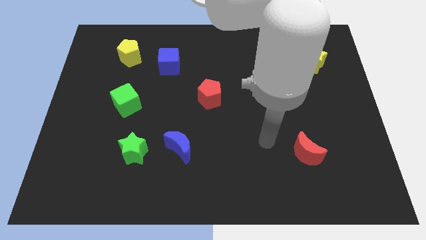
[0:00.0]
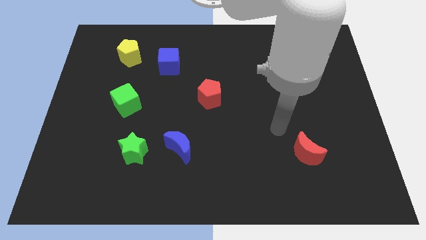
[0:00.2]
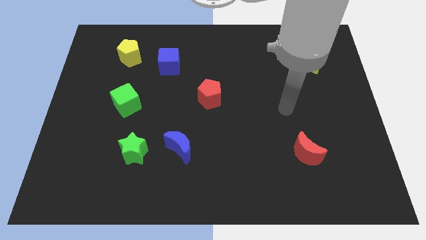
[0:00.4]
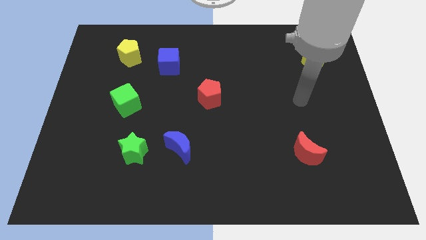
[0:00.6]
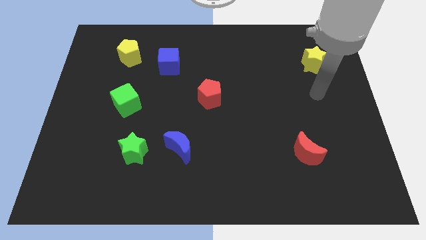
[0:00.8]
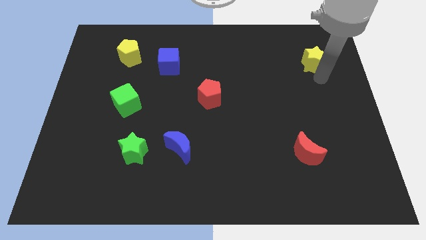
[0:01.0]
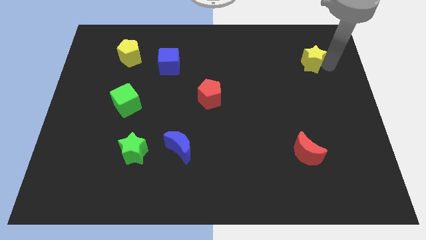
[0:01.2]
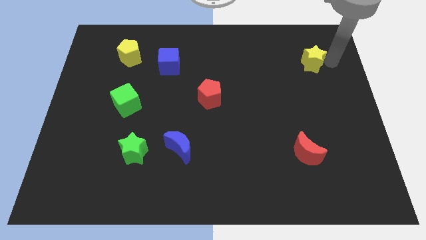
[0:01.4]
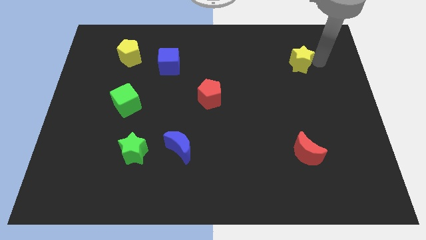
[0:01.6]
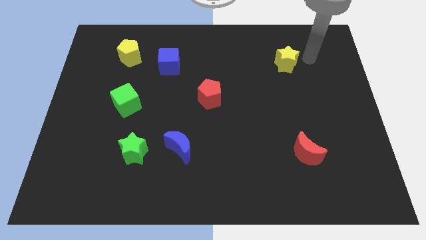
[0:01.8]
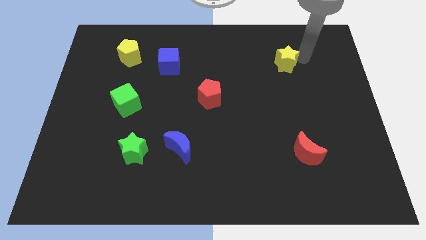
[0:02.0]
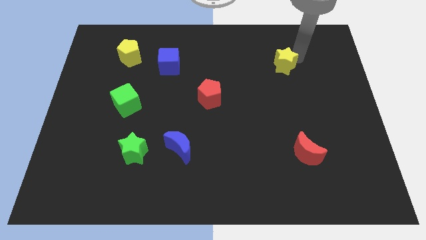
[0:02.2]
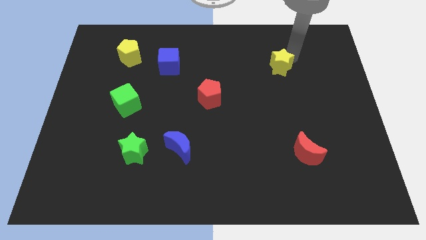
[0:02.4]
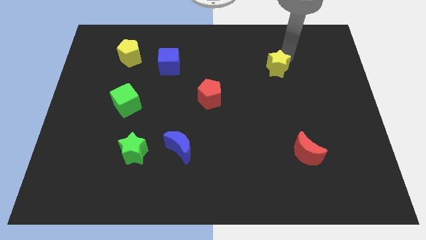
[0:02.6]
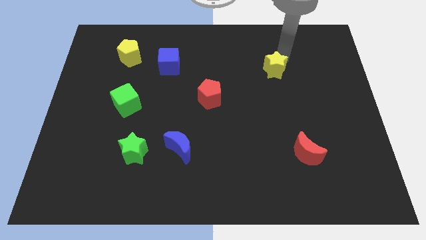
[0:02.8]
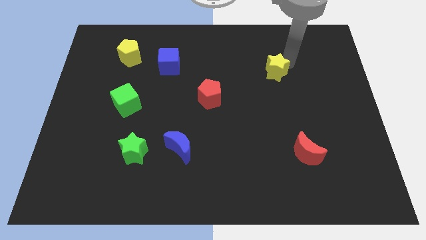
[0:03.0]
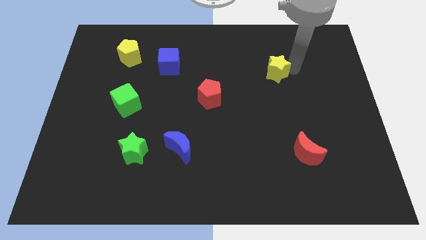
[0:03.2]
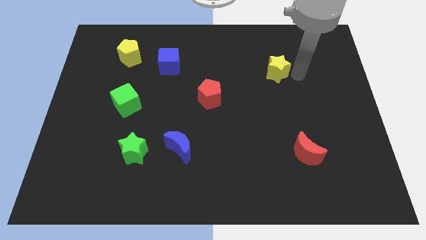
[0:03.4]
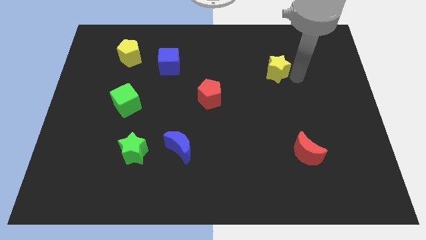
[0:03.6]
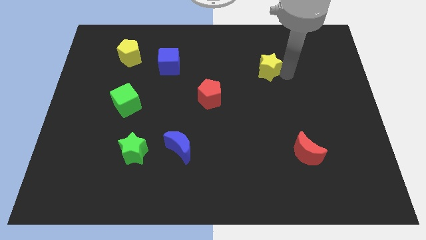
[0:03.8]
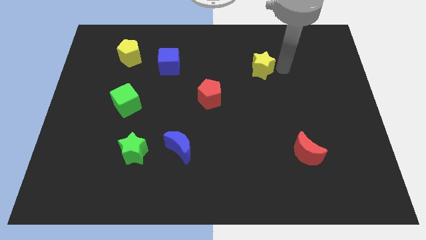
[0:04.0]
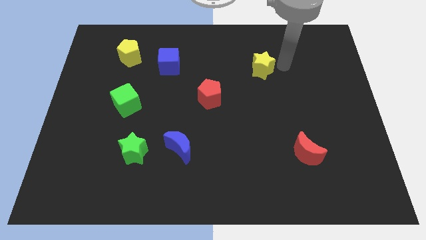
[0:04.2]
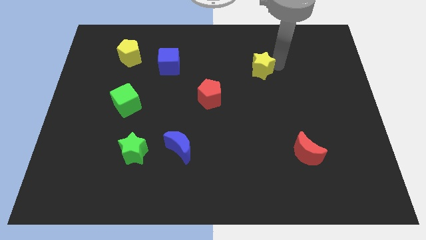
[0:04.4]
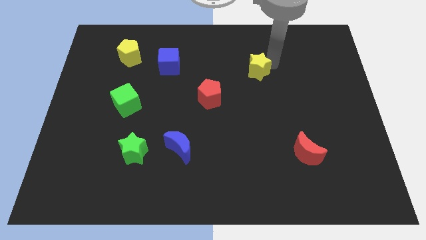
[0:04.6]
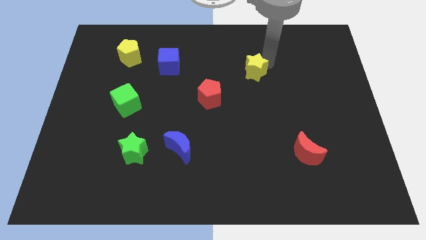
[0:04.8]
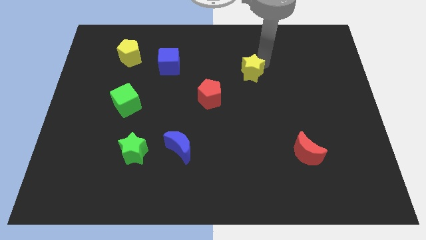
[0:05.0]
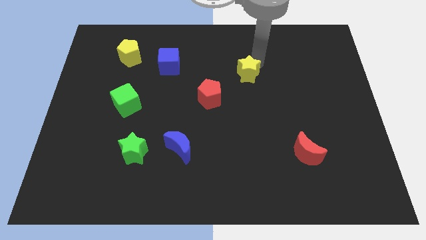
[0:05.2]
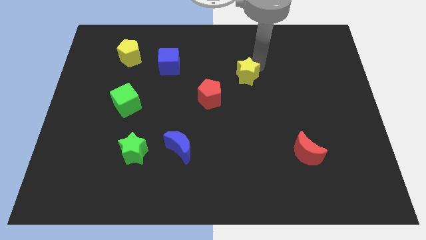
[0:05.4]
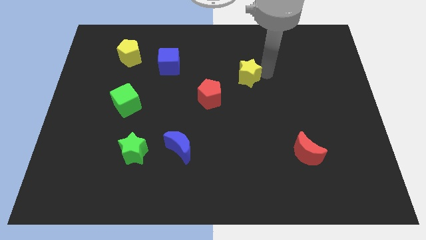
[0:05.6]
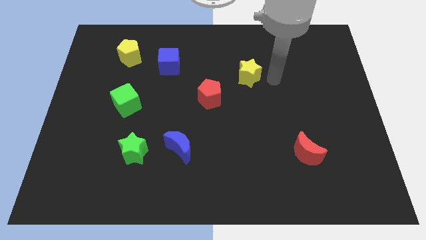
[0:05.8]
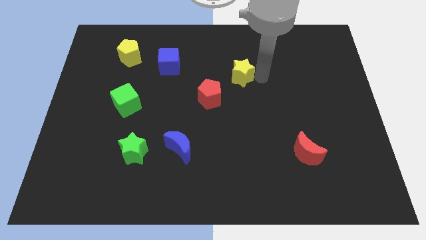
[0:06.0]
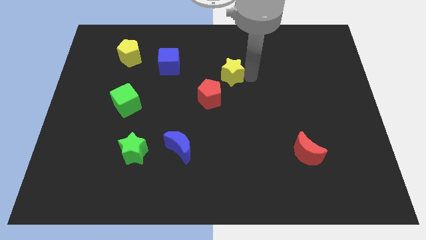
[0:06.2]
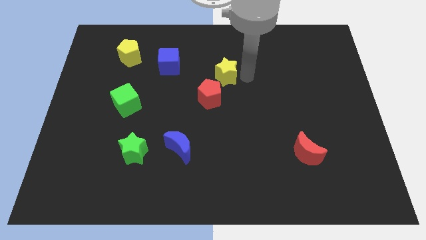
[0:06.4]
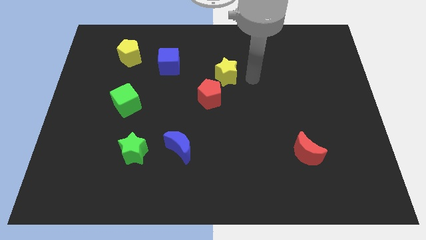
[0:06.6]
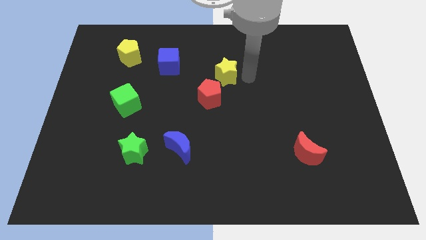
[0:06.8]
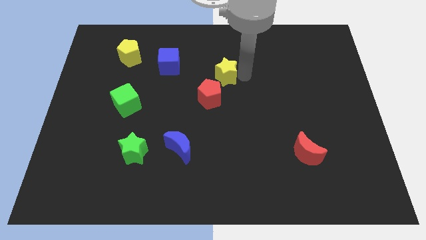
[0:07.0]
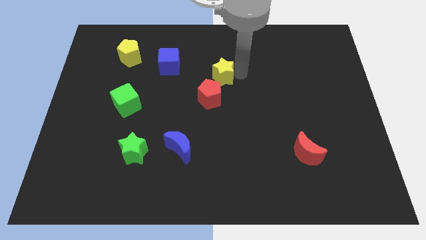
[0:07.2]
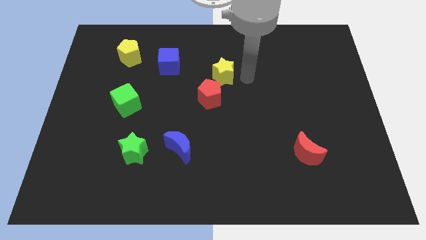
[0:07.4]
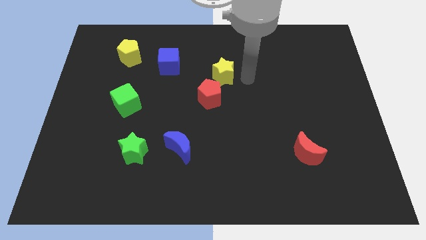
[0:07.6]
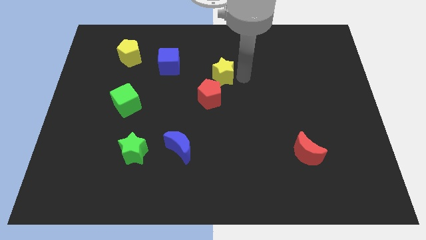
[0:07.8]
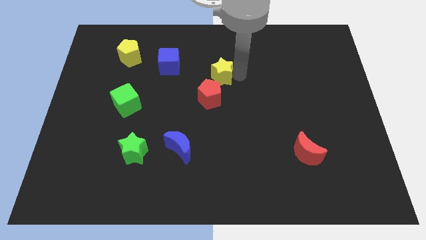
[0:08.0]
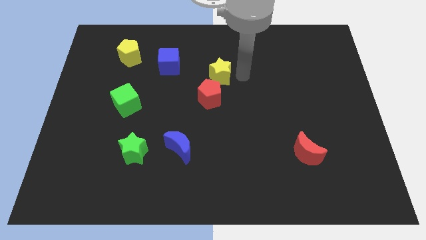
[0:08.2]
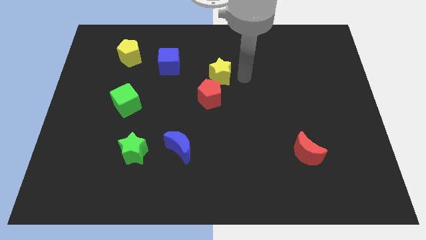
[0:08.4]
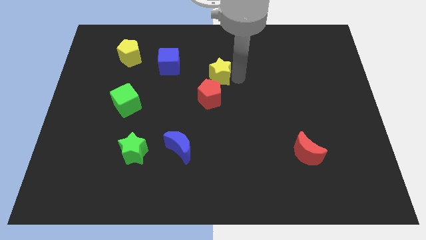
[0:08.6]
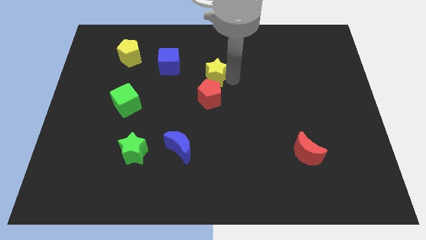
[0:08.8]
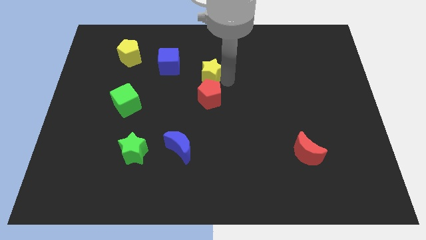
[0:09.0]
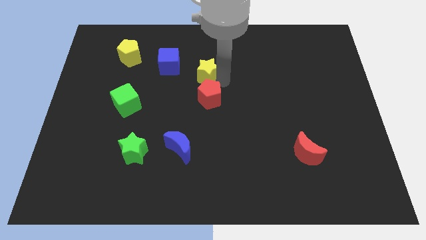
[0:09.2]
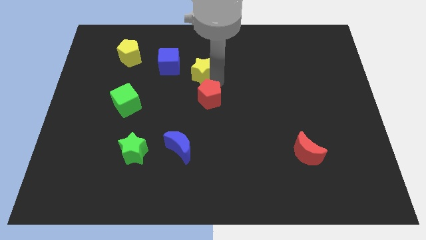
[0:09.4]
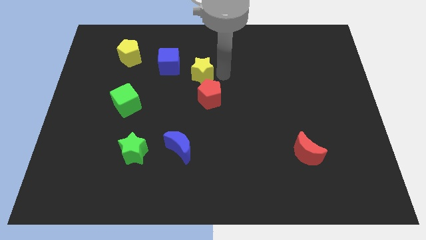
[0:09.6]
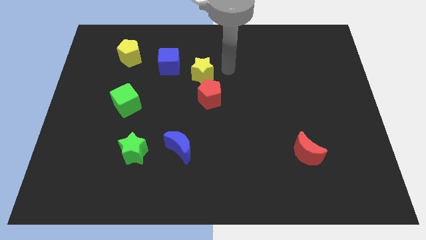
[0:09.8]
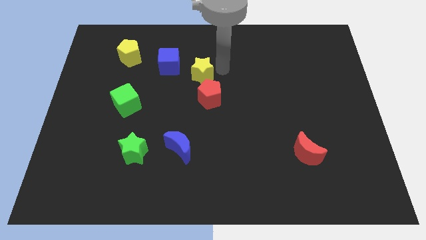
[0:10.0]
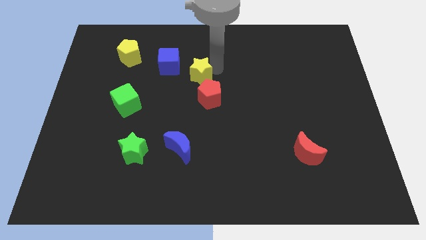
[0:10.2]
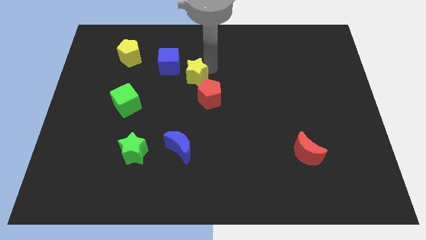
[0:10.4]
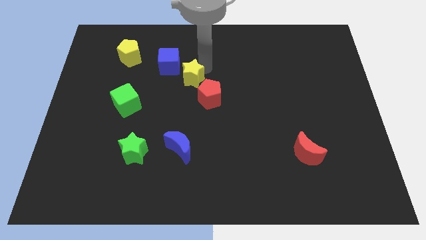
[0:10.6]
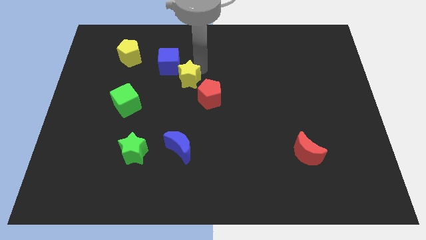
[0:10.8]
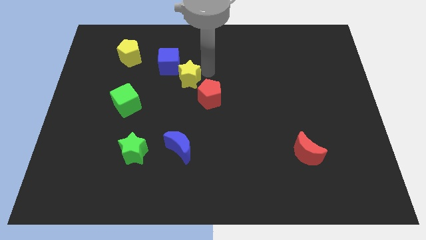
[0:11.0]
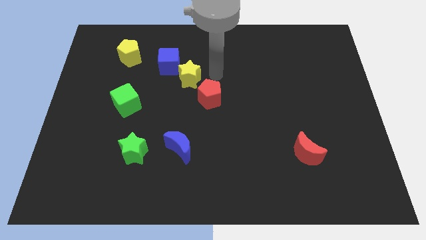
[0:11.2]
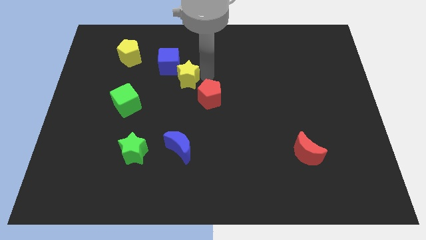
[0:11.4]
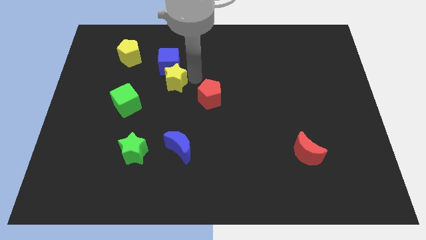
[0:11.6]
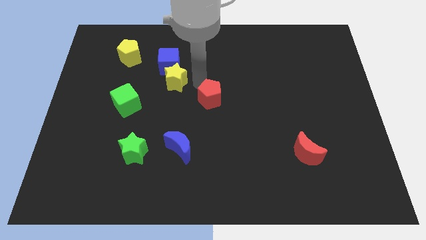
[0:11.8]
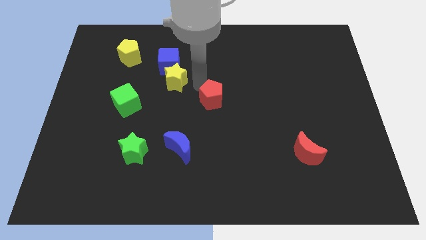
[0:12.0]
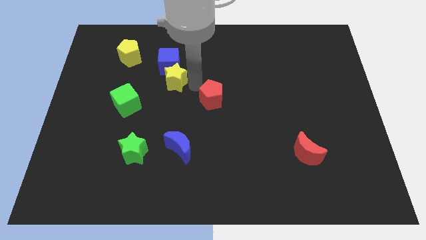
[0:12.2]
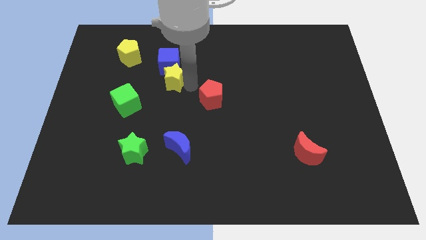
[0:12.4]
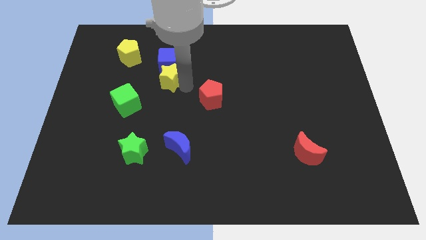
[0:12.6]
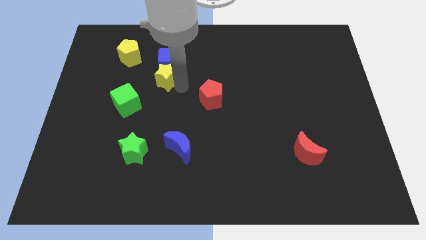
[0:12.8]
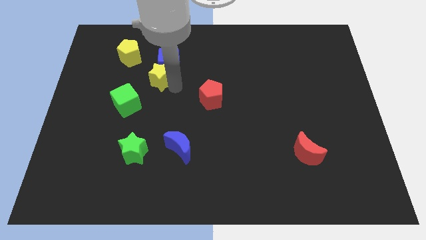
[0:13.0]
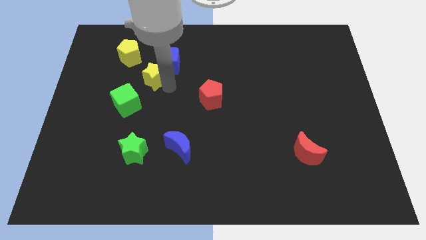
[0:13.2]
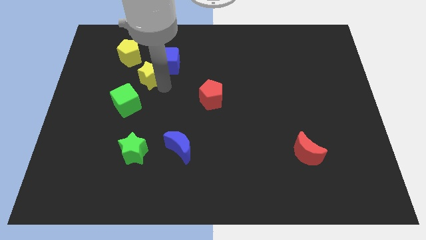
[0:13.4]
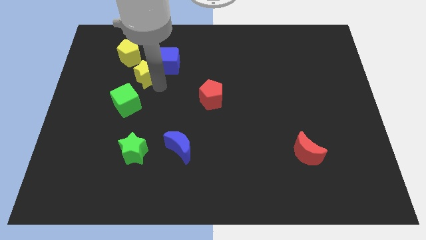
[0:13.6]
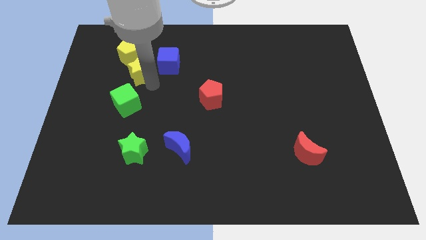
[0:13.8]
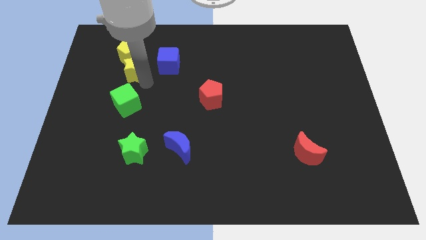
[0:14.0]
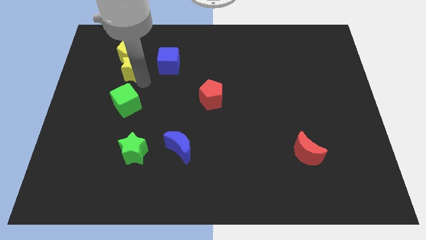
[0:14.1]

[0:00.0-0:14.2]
put the yellow star to the yellow pentagon

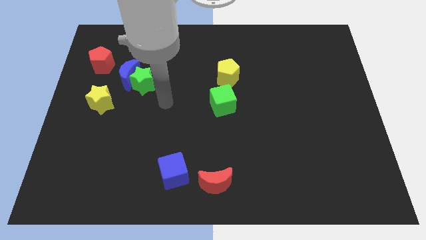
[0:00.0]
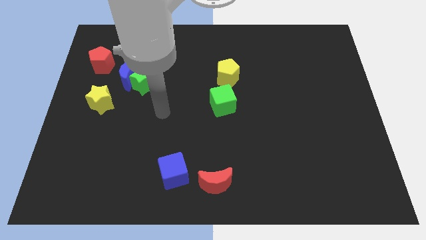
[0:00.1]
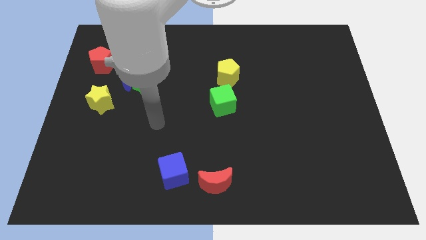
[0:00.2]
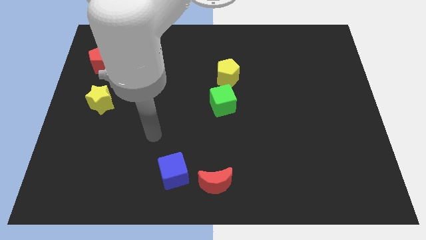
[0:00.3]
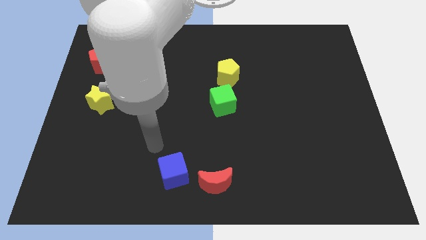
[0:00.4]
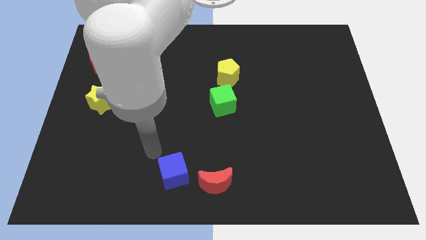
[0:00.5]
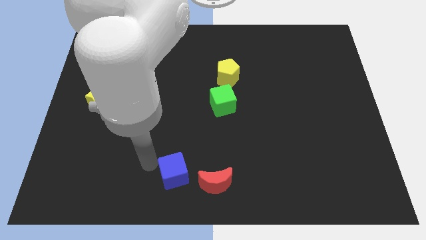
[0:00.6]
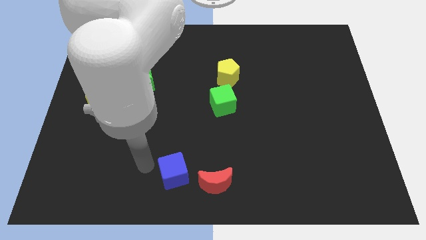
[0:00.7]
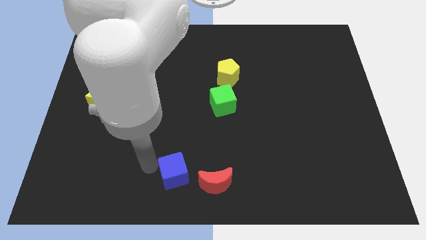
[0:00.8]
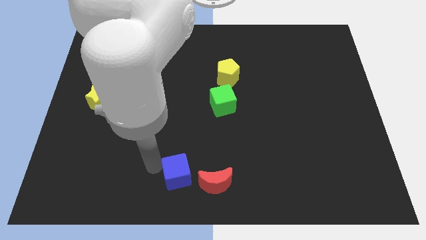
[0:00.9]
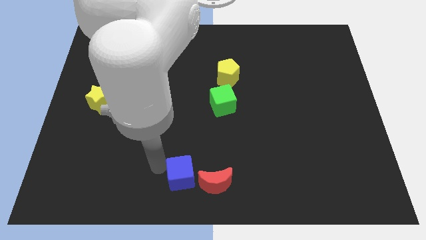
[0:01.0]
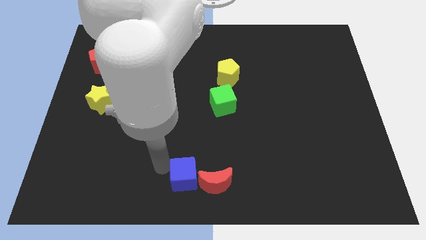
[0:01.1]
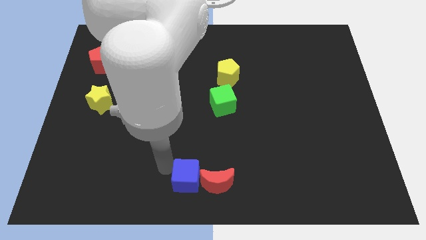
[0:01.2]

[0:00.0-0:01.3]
move the blue cube towards the red moon
